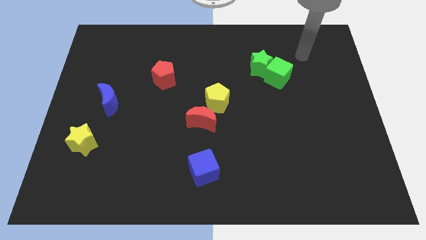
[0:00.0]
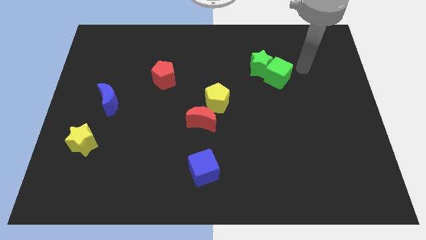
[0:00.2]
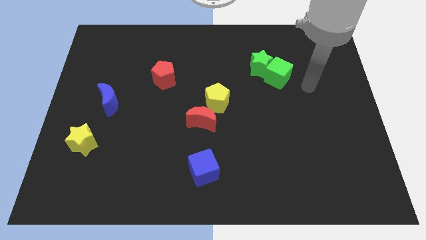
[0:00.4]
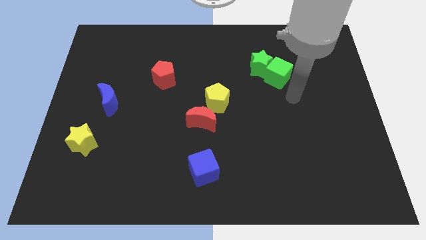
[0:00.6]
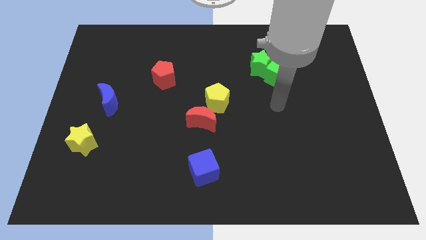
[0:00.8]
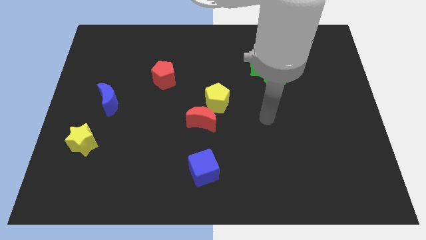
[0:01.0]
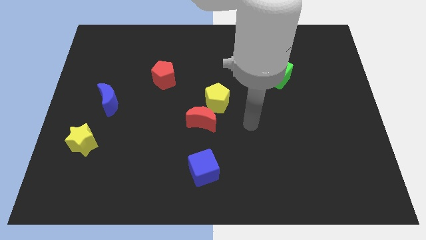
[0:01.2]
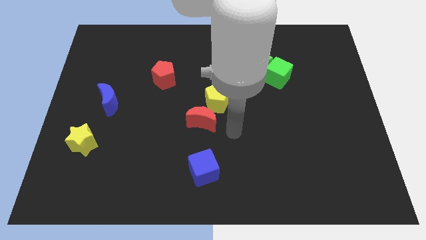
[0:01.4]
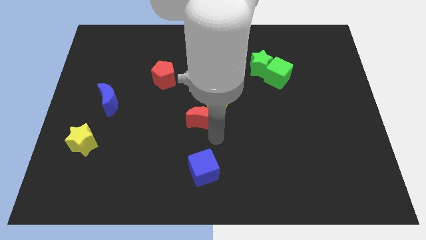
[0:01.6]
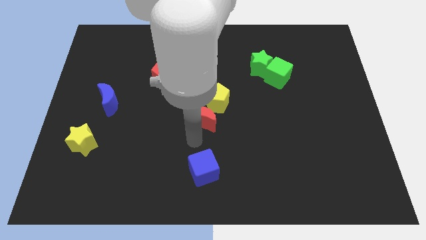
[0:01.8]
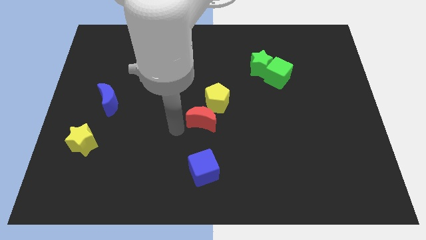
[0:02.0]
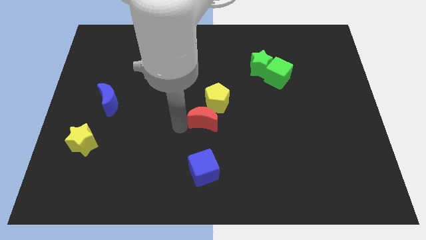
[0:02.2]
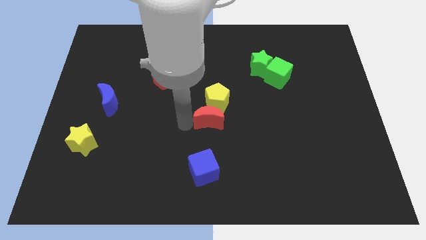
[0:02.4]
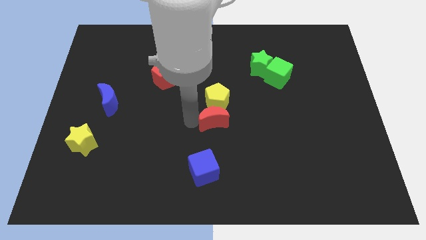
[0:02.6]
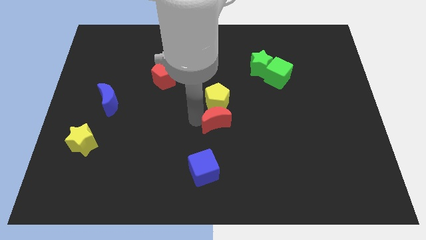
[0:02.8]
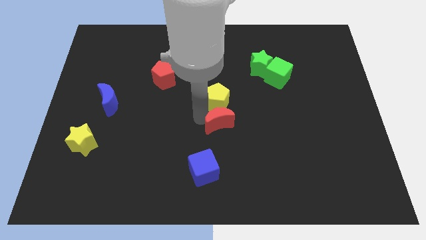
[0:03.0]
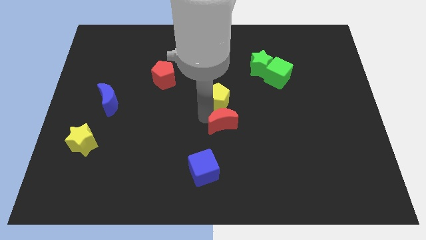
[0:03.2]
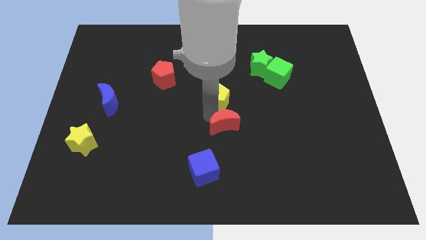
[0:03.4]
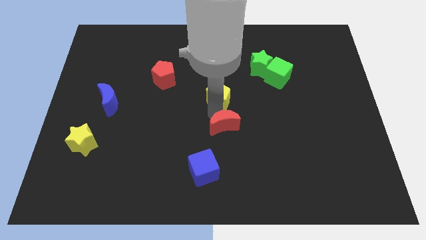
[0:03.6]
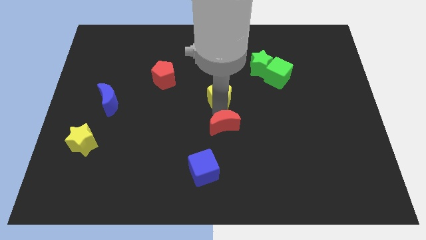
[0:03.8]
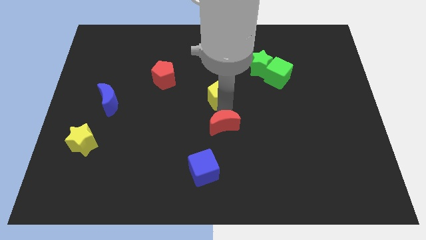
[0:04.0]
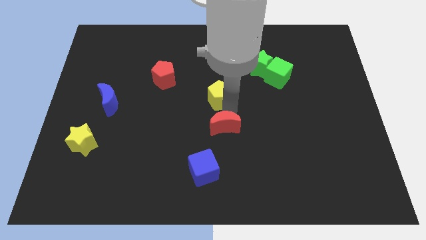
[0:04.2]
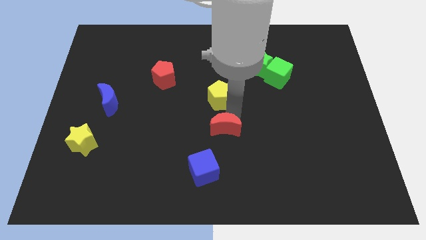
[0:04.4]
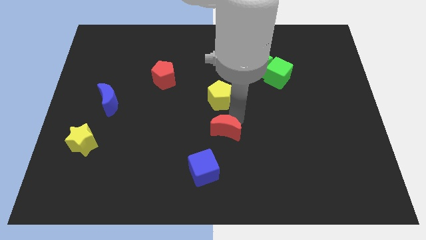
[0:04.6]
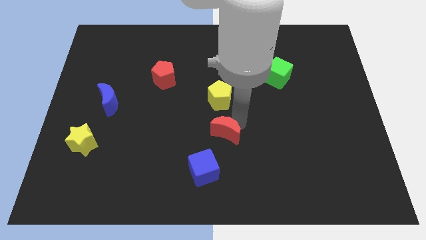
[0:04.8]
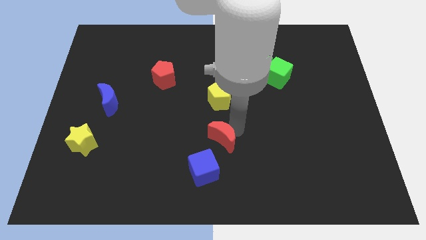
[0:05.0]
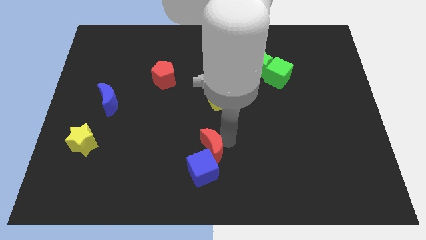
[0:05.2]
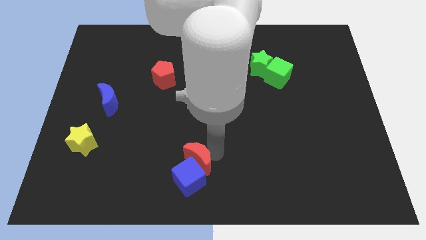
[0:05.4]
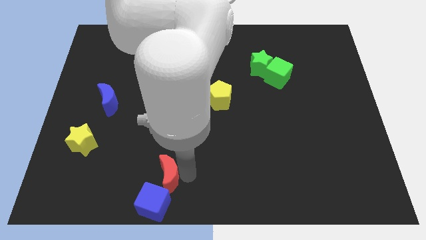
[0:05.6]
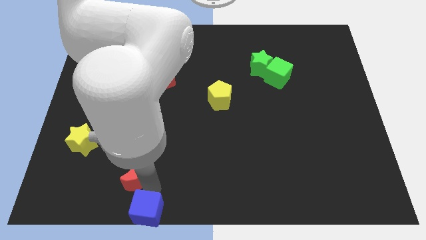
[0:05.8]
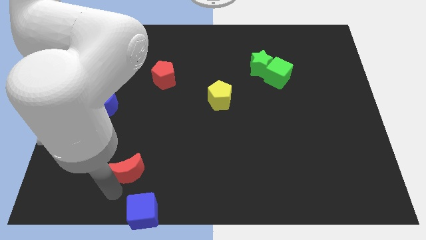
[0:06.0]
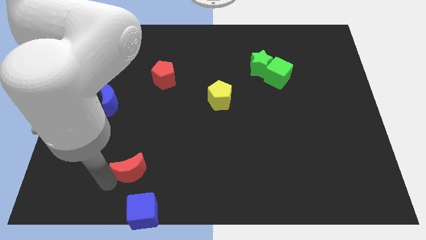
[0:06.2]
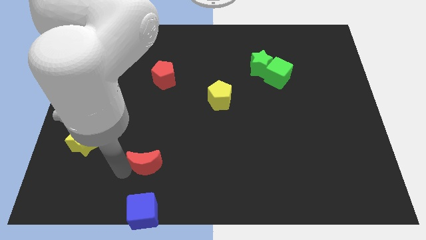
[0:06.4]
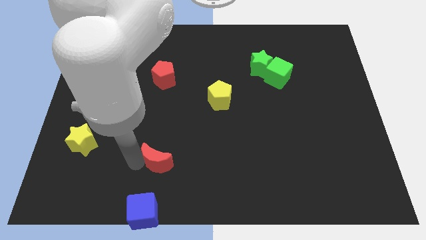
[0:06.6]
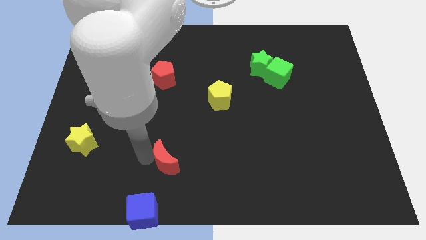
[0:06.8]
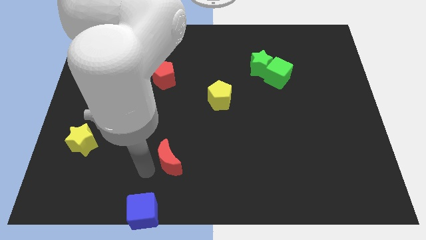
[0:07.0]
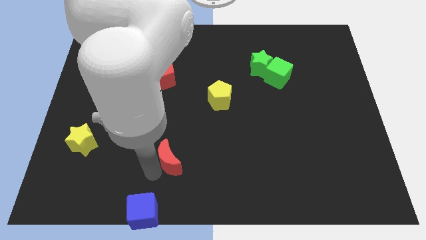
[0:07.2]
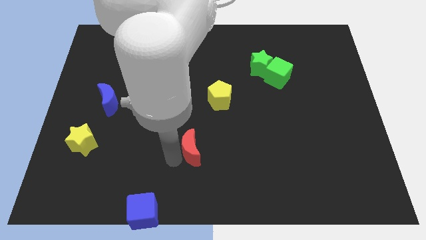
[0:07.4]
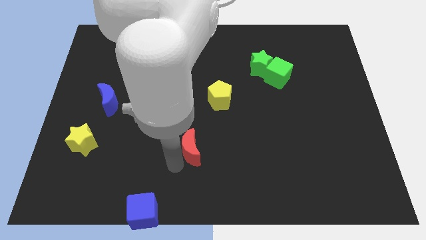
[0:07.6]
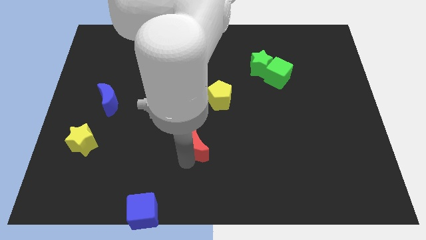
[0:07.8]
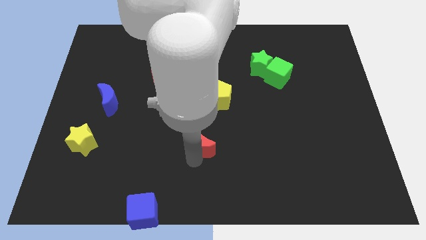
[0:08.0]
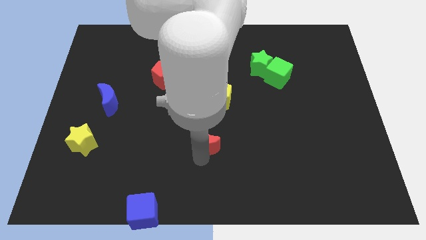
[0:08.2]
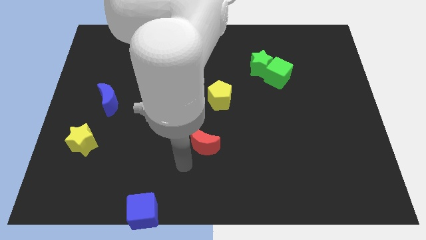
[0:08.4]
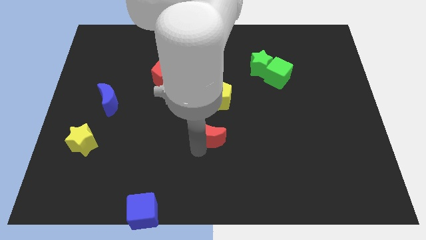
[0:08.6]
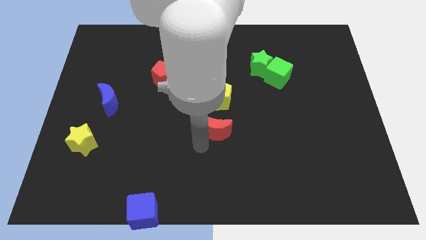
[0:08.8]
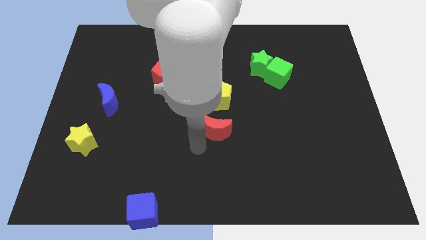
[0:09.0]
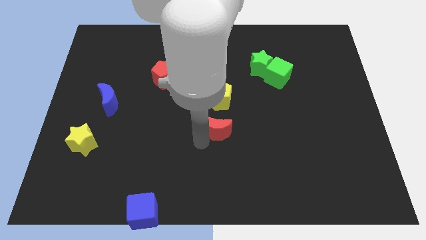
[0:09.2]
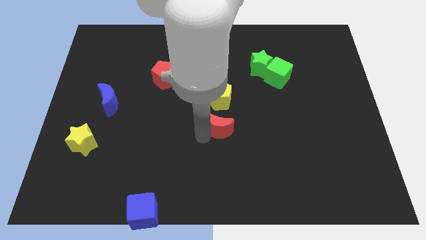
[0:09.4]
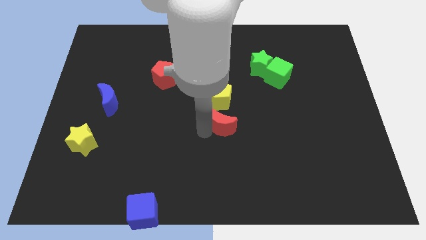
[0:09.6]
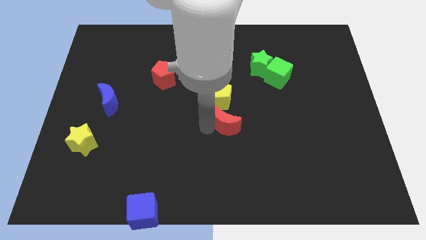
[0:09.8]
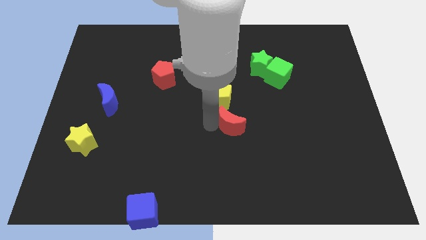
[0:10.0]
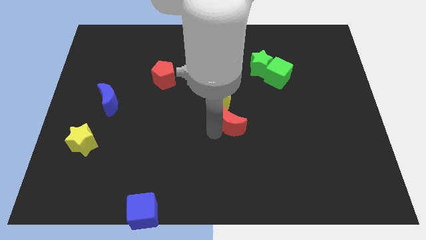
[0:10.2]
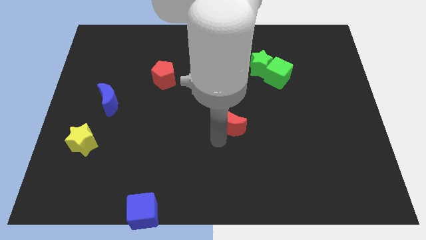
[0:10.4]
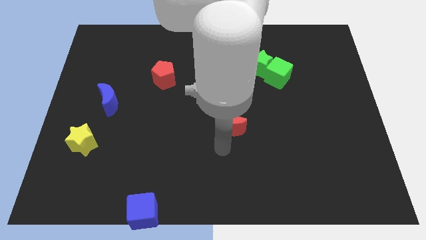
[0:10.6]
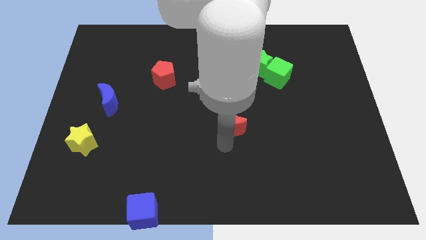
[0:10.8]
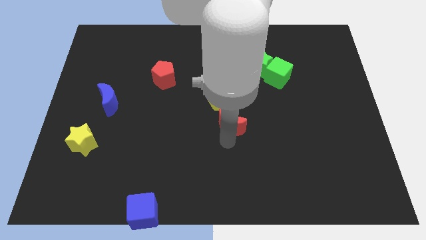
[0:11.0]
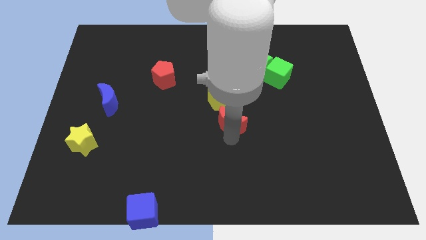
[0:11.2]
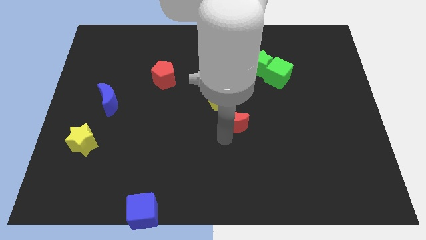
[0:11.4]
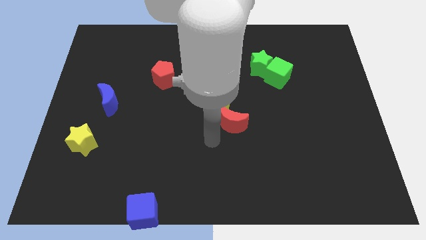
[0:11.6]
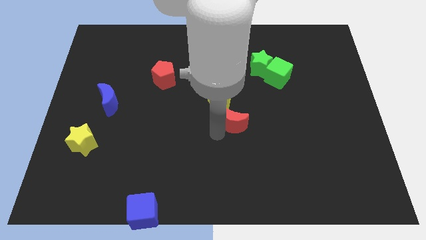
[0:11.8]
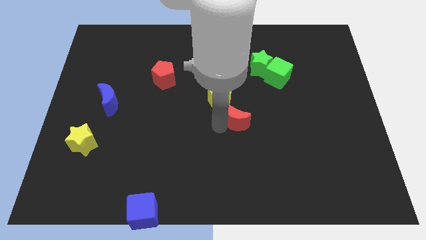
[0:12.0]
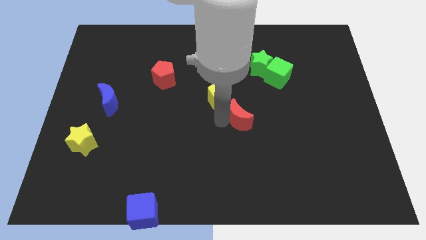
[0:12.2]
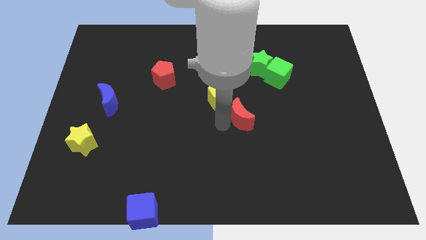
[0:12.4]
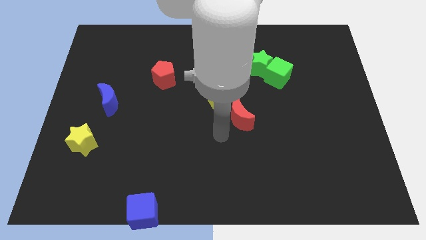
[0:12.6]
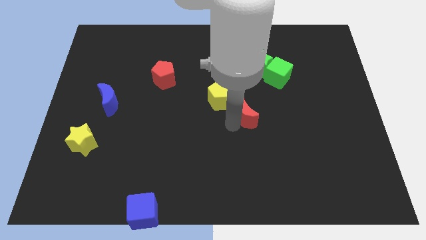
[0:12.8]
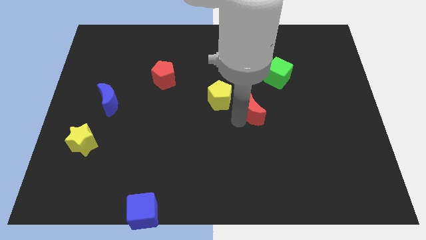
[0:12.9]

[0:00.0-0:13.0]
push the red moon to the bottom side of the green star
